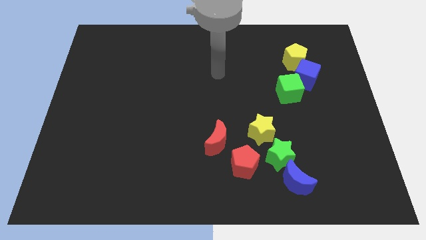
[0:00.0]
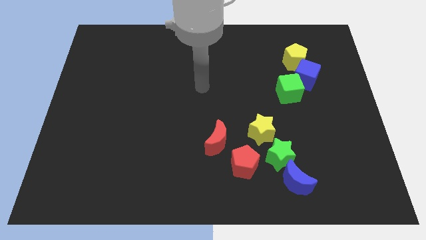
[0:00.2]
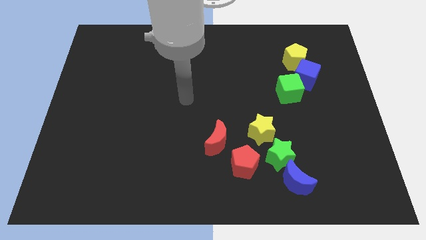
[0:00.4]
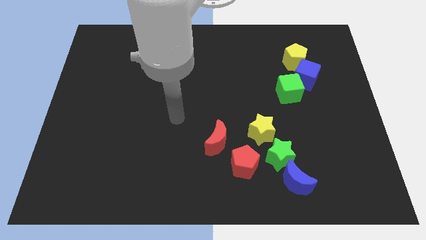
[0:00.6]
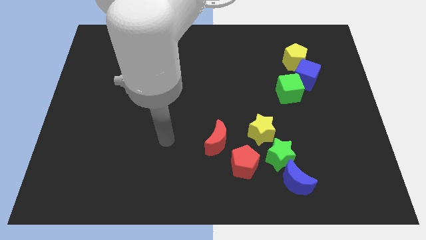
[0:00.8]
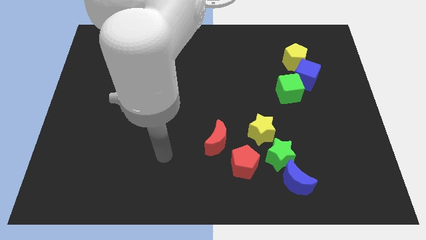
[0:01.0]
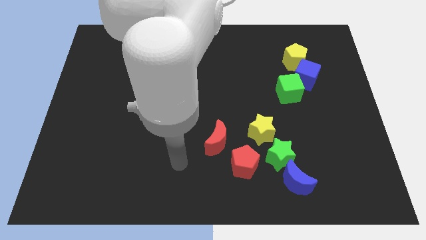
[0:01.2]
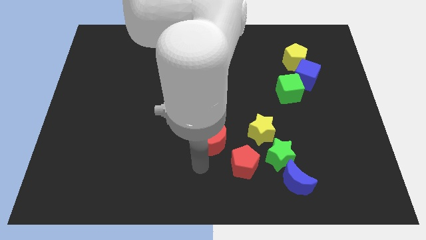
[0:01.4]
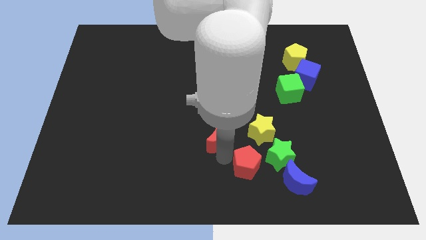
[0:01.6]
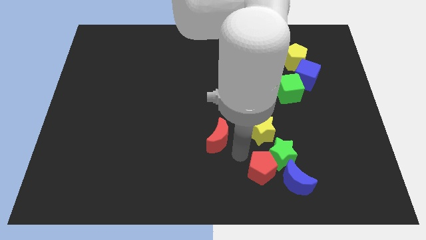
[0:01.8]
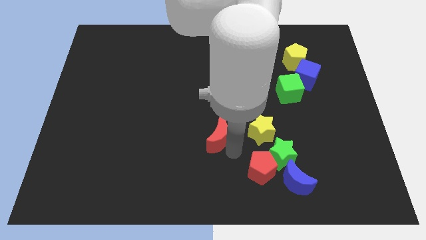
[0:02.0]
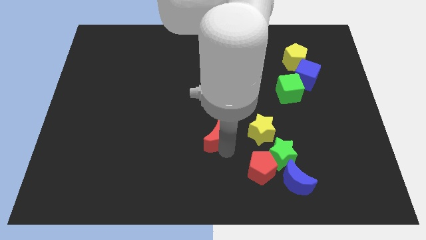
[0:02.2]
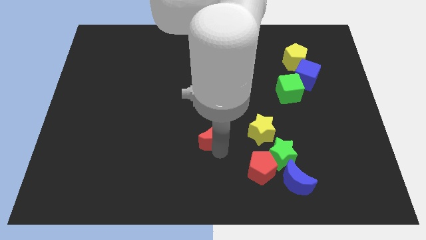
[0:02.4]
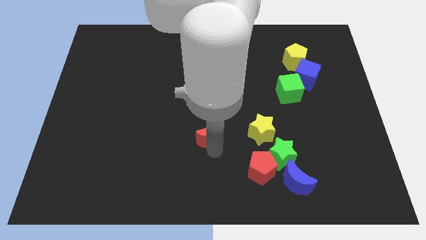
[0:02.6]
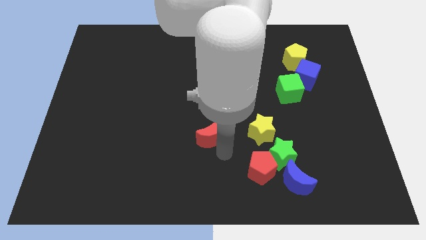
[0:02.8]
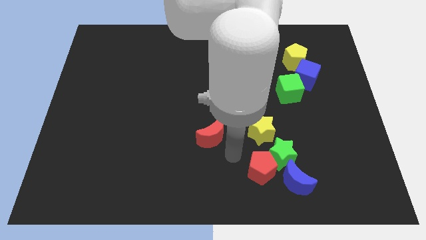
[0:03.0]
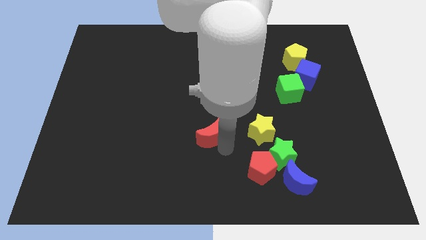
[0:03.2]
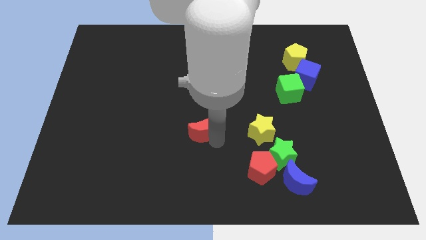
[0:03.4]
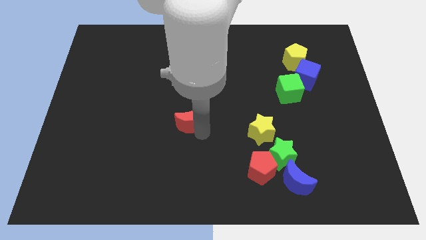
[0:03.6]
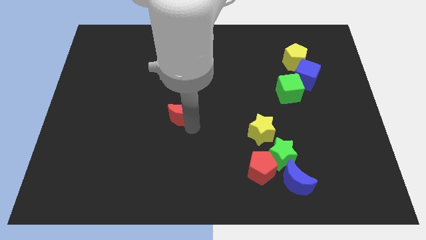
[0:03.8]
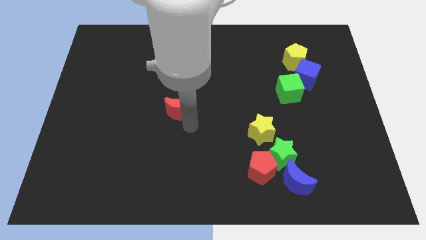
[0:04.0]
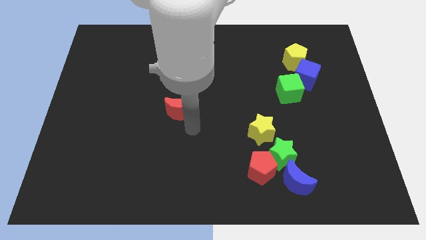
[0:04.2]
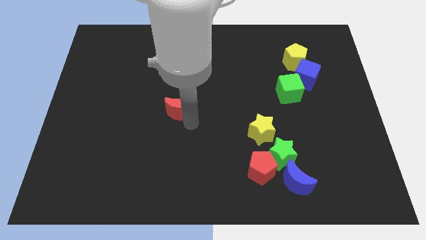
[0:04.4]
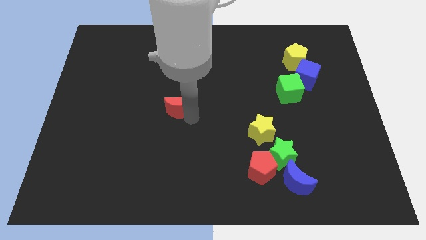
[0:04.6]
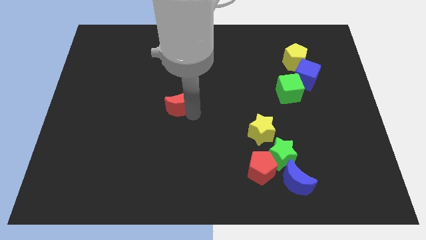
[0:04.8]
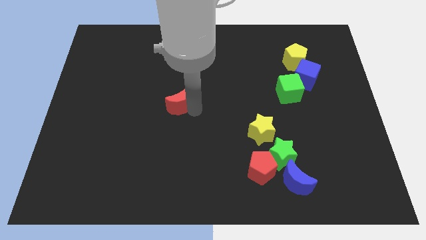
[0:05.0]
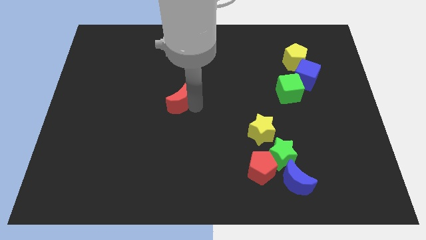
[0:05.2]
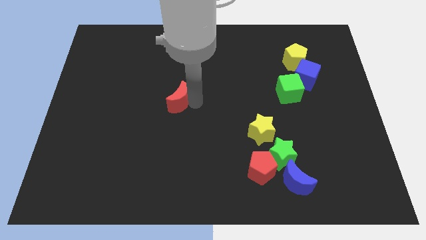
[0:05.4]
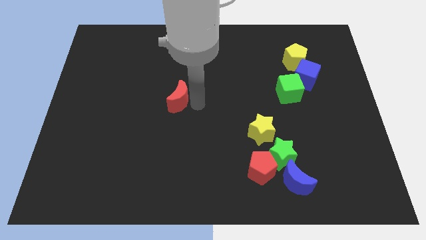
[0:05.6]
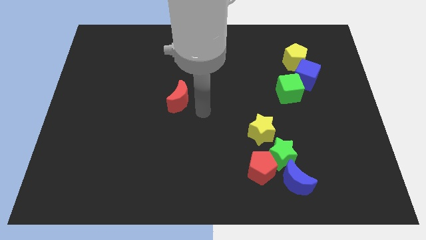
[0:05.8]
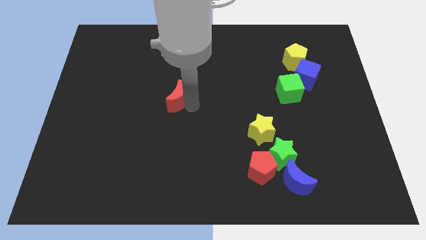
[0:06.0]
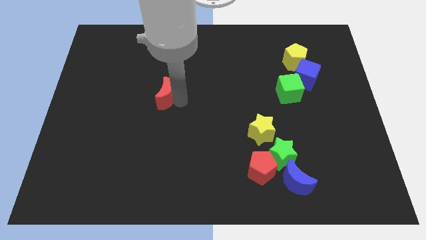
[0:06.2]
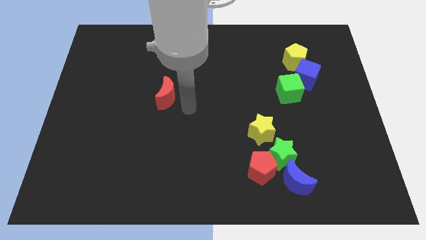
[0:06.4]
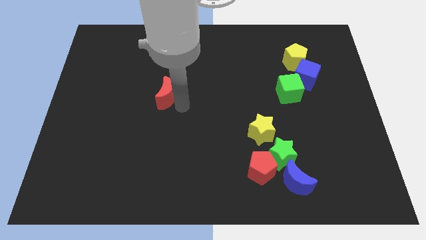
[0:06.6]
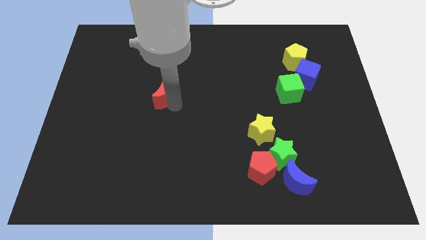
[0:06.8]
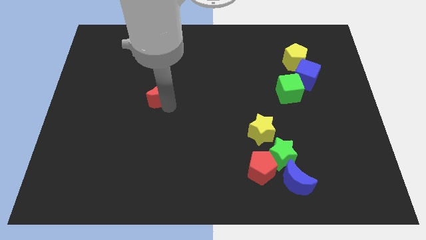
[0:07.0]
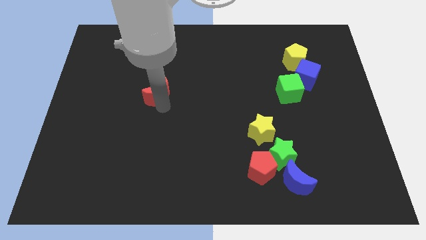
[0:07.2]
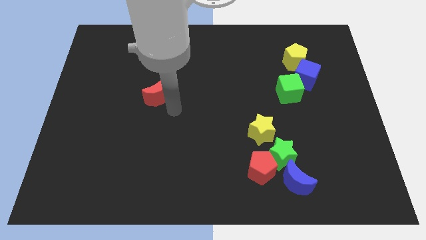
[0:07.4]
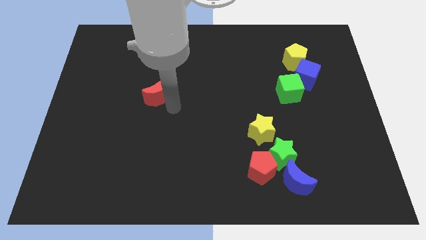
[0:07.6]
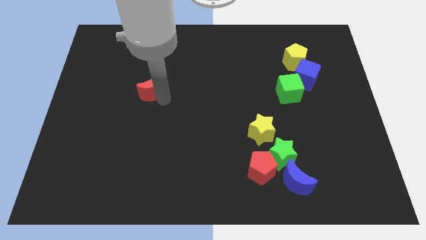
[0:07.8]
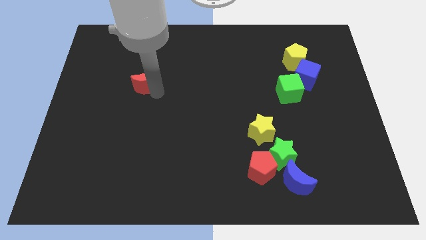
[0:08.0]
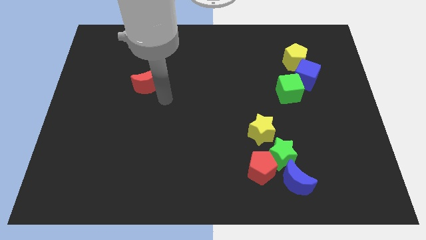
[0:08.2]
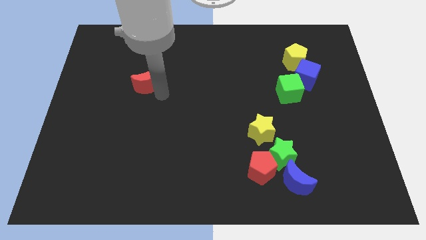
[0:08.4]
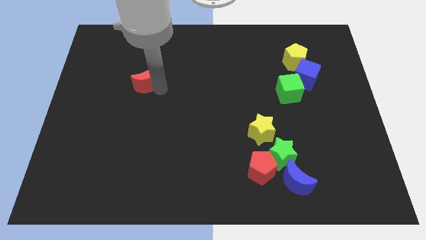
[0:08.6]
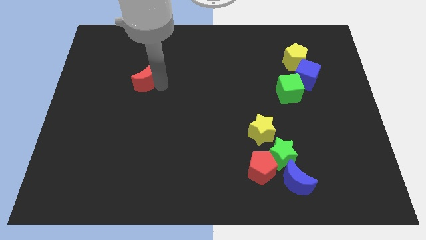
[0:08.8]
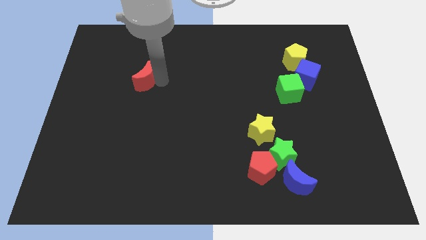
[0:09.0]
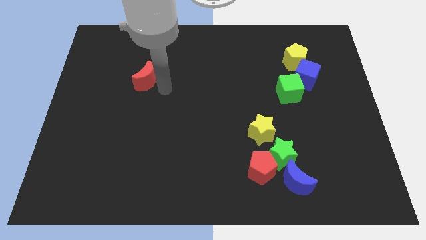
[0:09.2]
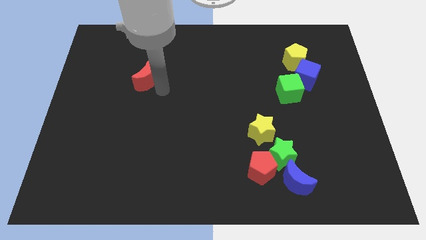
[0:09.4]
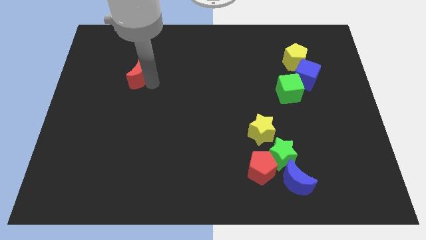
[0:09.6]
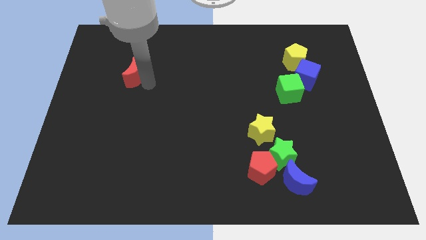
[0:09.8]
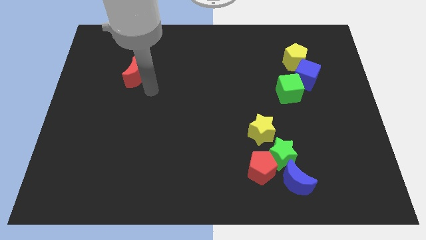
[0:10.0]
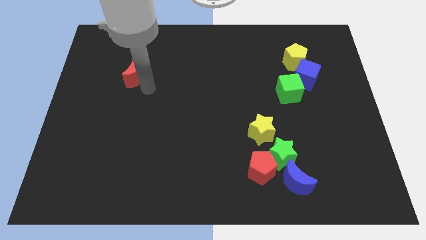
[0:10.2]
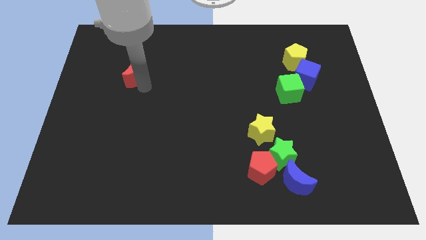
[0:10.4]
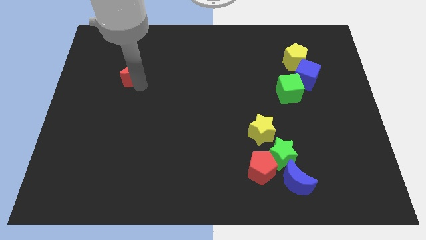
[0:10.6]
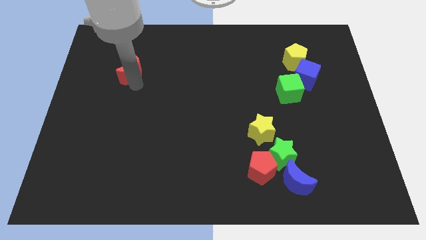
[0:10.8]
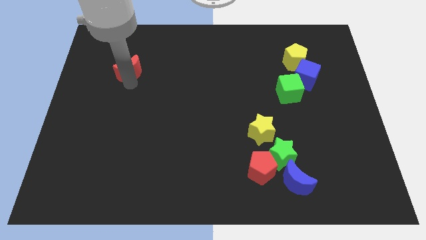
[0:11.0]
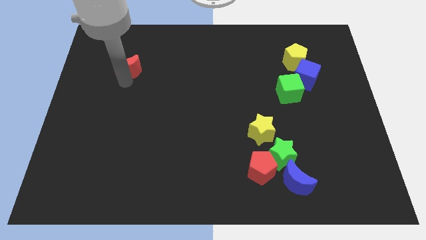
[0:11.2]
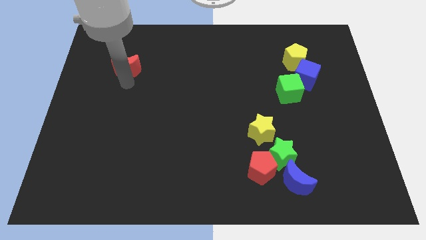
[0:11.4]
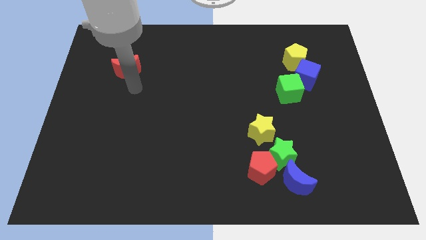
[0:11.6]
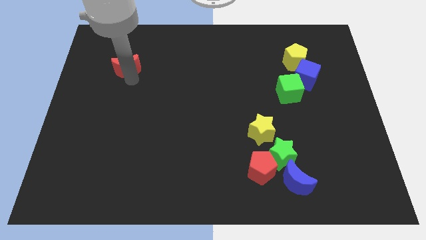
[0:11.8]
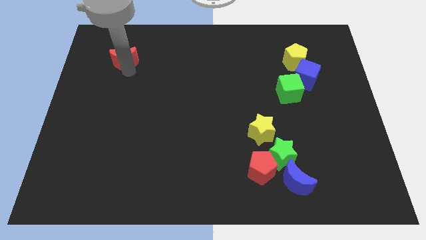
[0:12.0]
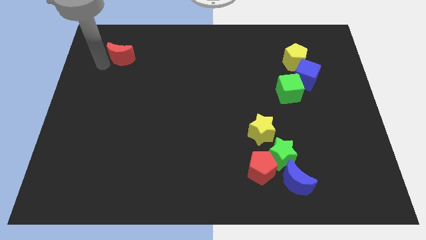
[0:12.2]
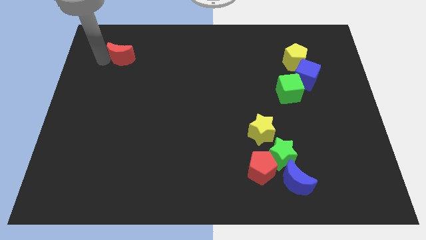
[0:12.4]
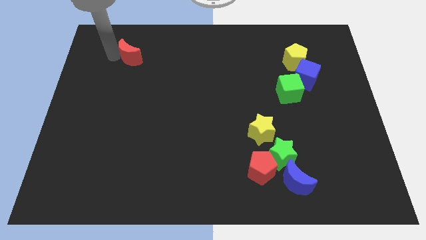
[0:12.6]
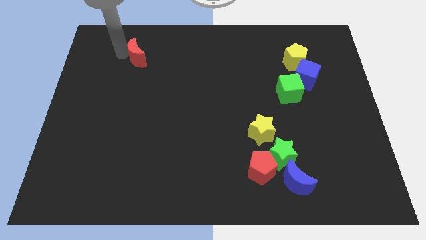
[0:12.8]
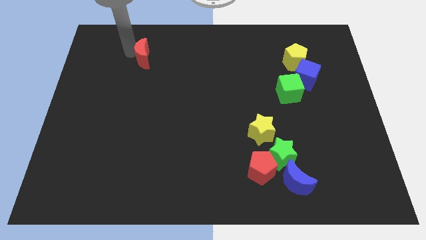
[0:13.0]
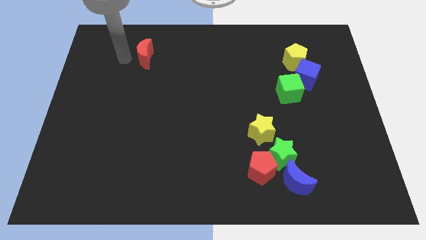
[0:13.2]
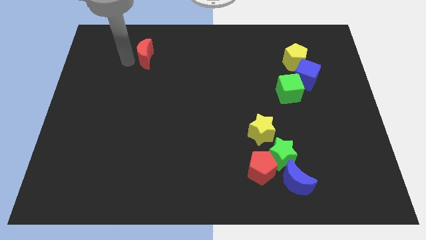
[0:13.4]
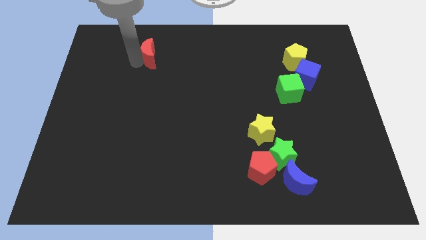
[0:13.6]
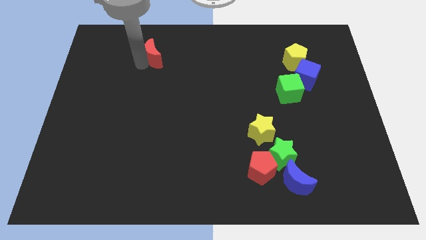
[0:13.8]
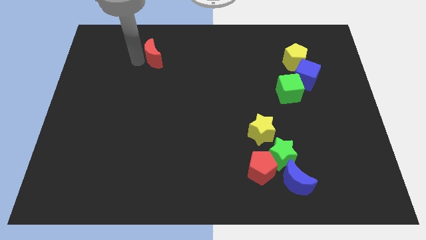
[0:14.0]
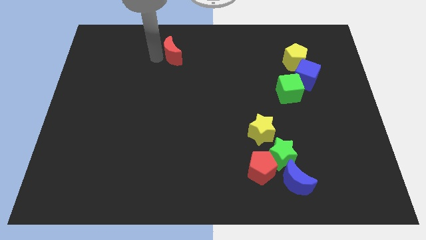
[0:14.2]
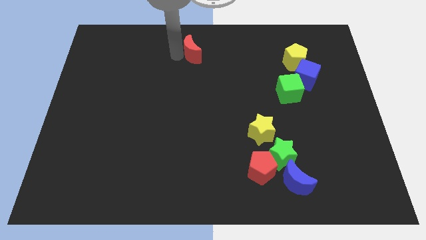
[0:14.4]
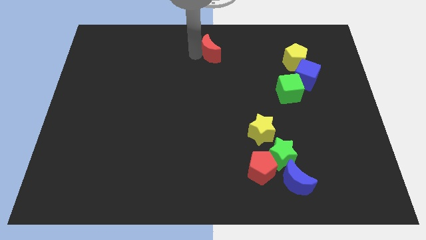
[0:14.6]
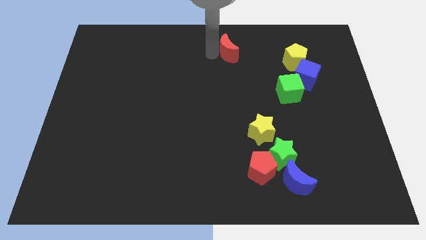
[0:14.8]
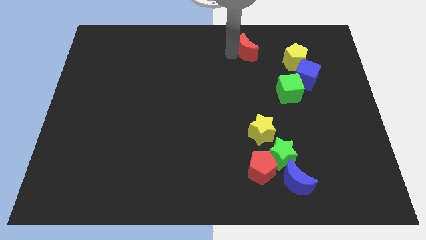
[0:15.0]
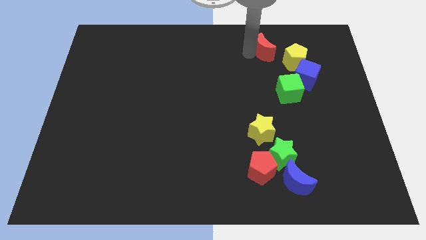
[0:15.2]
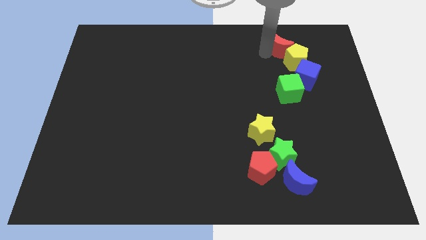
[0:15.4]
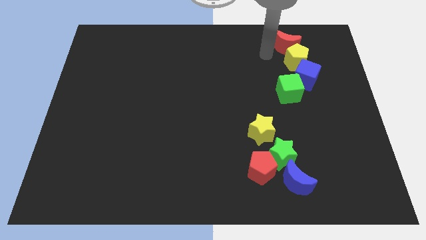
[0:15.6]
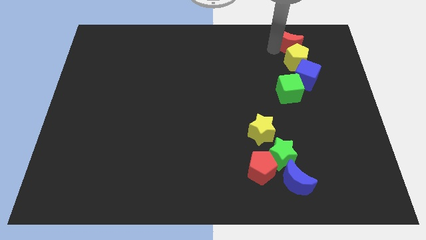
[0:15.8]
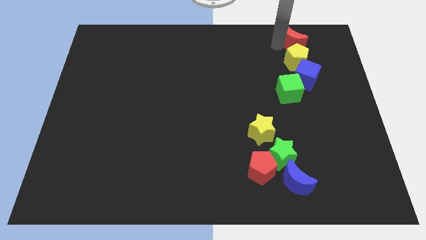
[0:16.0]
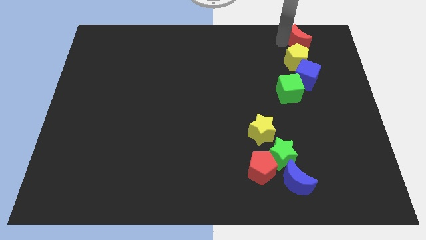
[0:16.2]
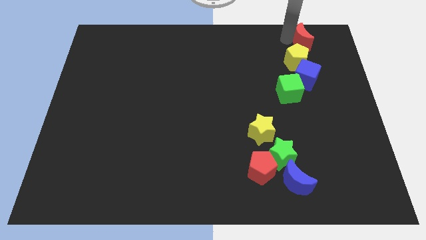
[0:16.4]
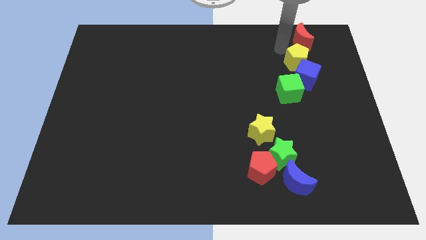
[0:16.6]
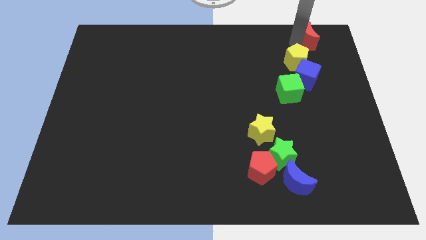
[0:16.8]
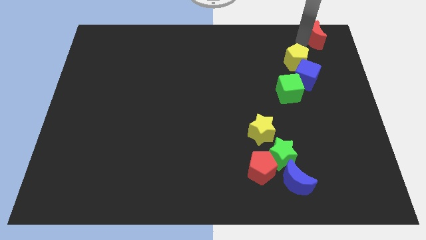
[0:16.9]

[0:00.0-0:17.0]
move the red moon to the top right corner
